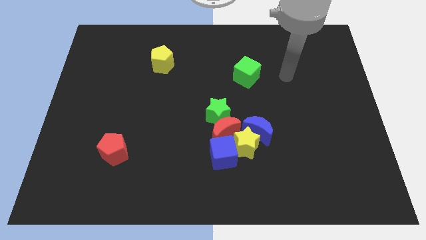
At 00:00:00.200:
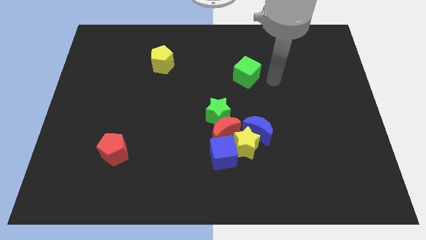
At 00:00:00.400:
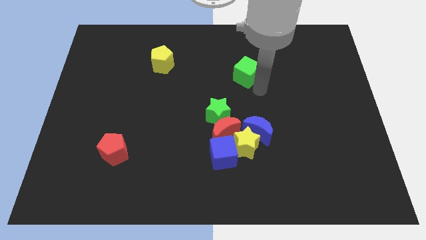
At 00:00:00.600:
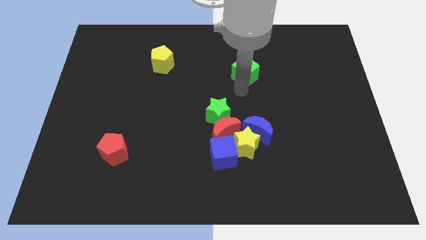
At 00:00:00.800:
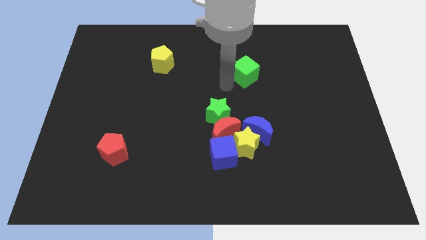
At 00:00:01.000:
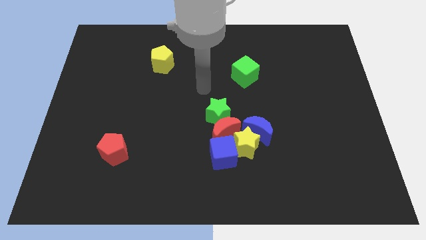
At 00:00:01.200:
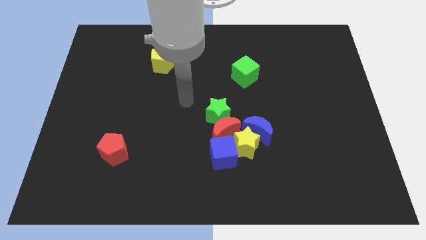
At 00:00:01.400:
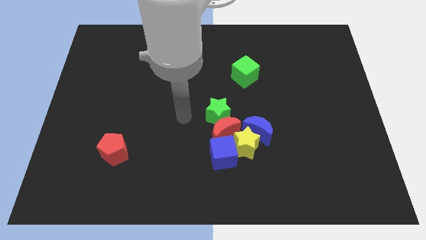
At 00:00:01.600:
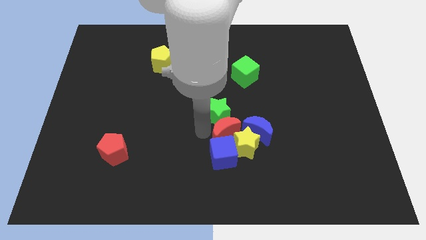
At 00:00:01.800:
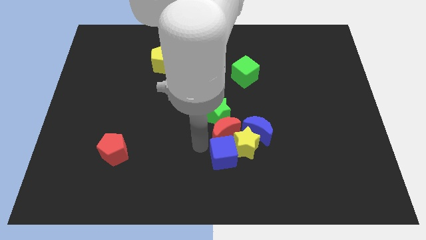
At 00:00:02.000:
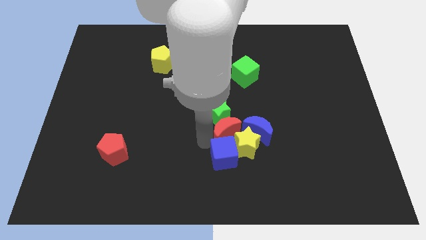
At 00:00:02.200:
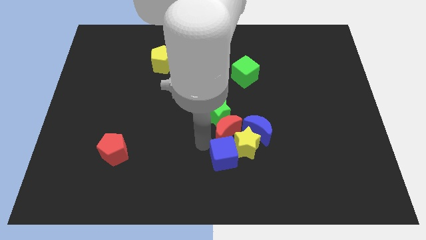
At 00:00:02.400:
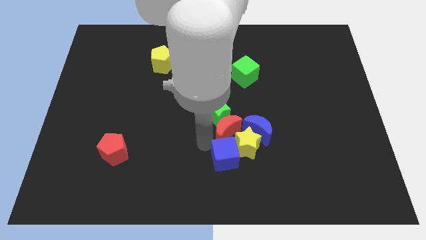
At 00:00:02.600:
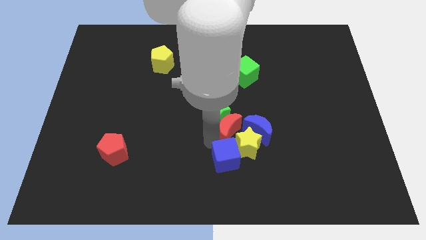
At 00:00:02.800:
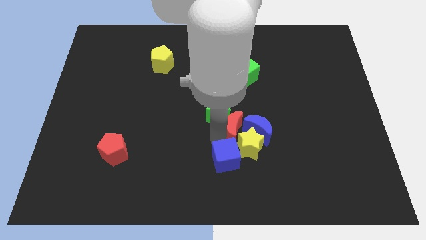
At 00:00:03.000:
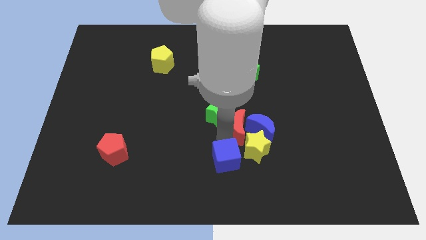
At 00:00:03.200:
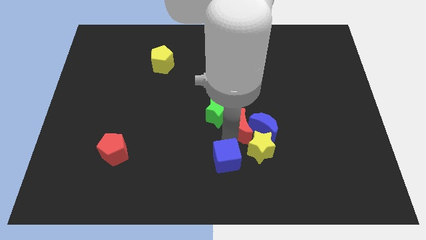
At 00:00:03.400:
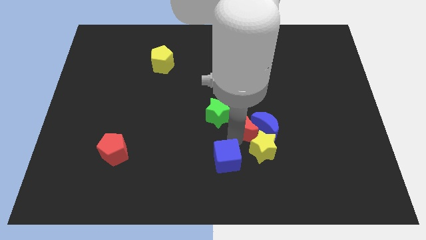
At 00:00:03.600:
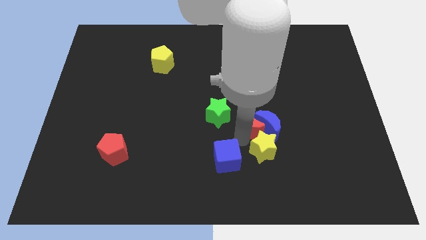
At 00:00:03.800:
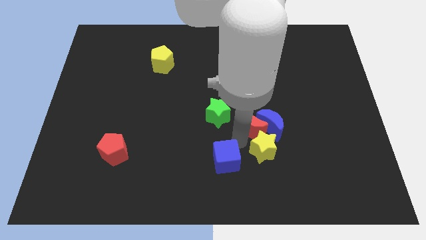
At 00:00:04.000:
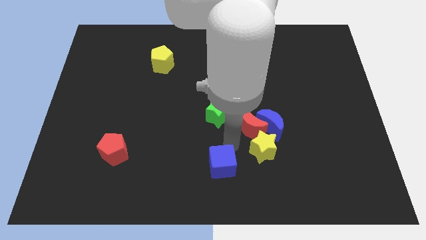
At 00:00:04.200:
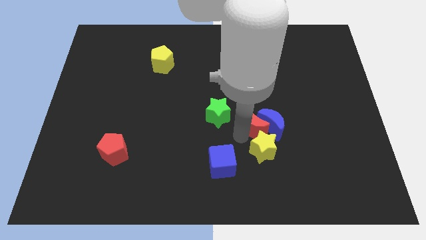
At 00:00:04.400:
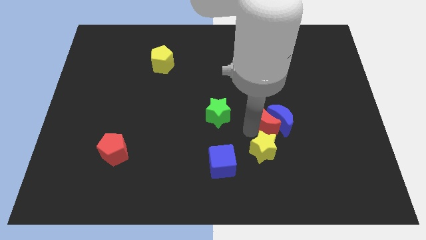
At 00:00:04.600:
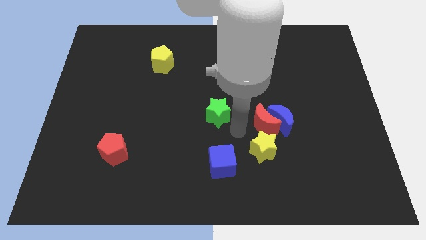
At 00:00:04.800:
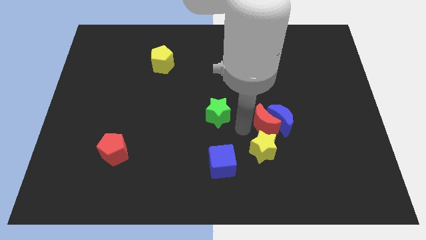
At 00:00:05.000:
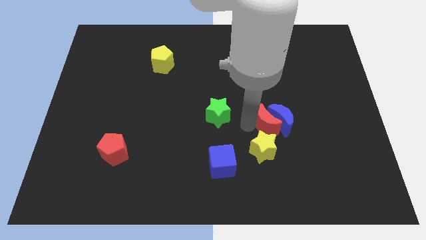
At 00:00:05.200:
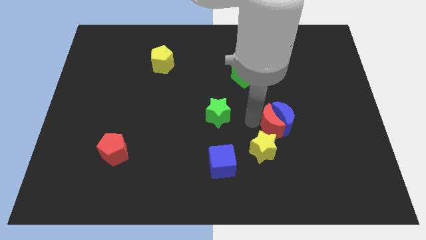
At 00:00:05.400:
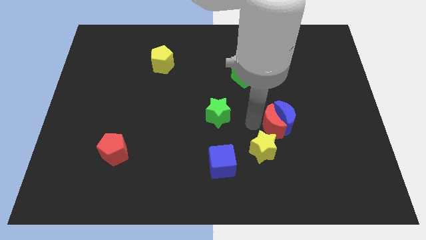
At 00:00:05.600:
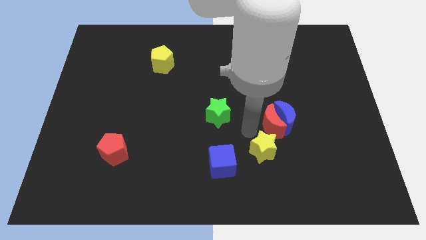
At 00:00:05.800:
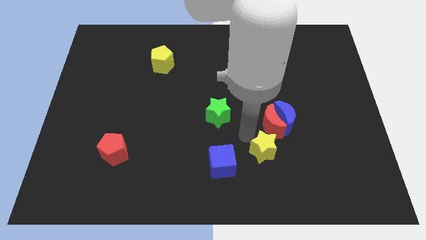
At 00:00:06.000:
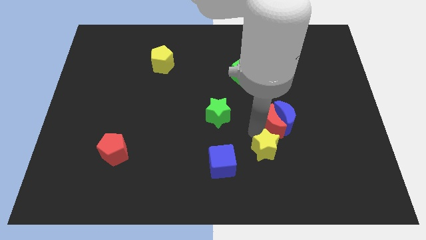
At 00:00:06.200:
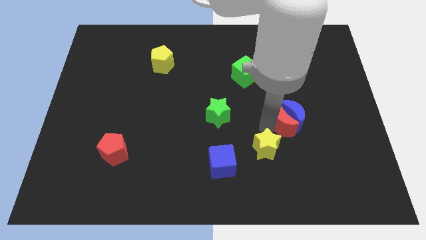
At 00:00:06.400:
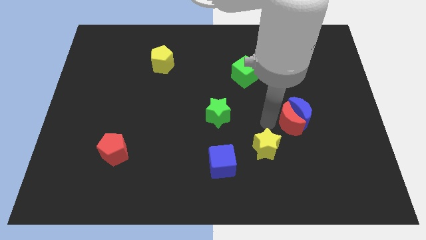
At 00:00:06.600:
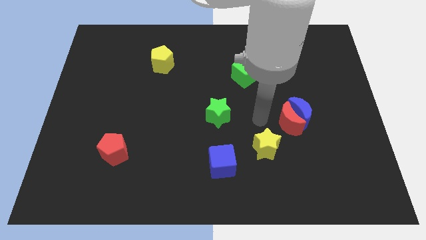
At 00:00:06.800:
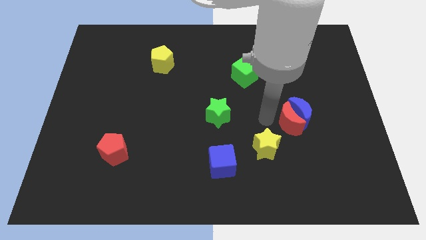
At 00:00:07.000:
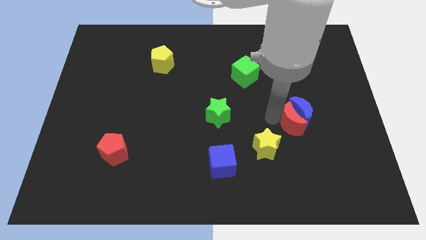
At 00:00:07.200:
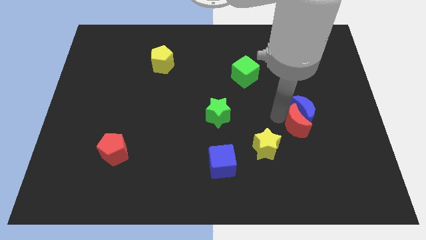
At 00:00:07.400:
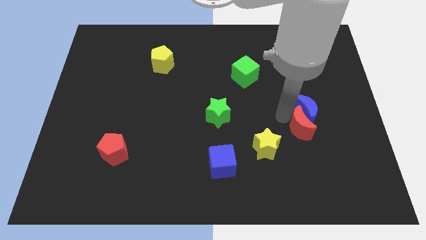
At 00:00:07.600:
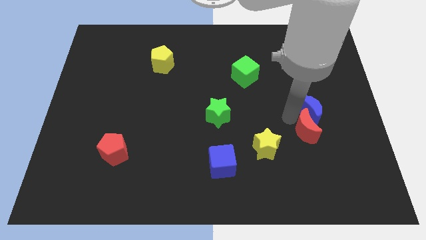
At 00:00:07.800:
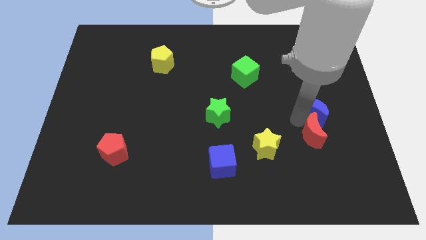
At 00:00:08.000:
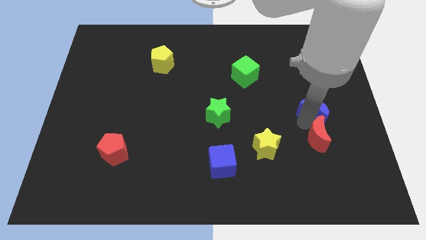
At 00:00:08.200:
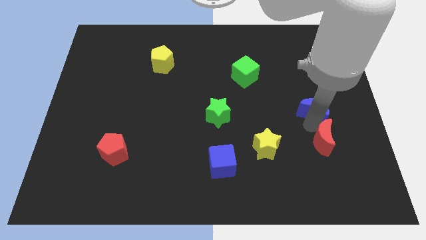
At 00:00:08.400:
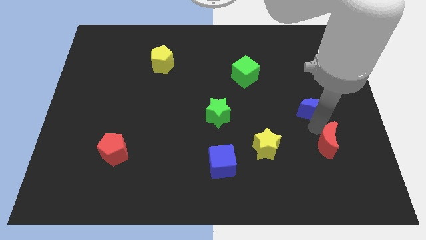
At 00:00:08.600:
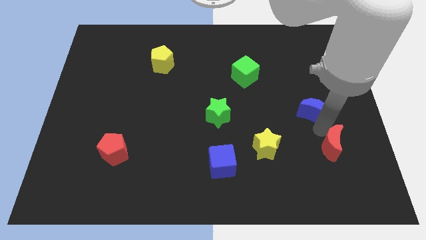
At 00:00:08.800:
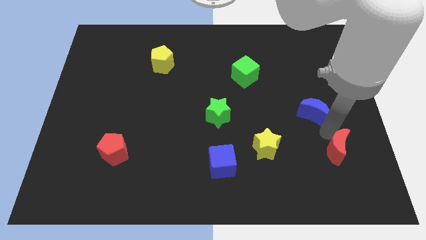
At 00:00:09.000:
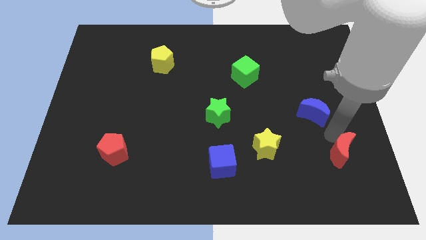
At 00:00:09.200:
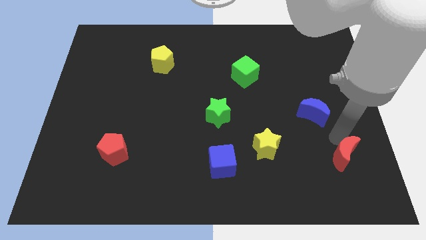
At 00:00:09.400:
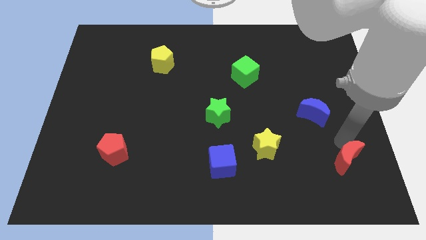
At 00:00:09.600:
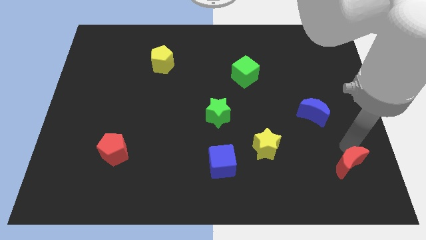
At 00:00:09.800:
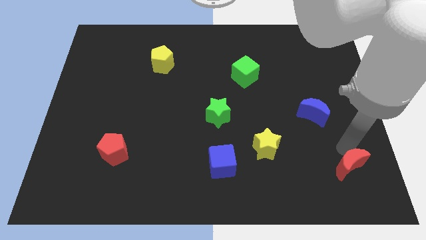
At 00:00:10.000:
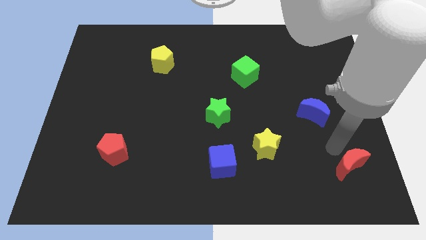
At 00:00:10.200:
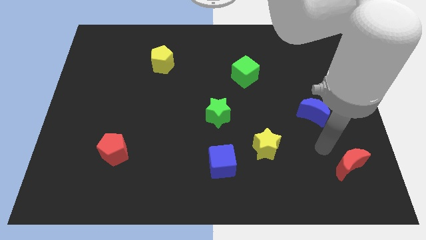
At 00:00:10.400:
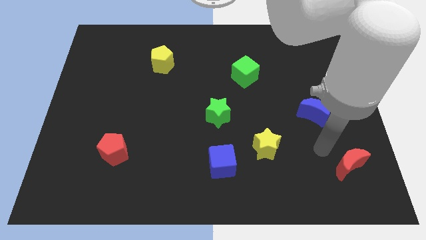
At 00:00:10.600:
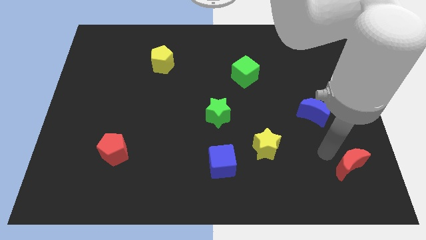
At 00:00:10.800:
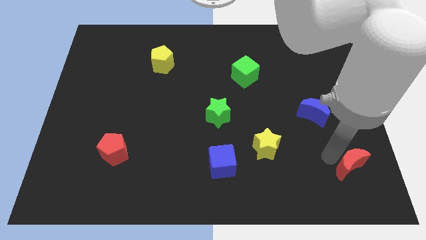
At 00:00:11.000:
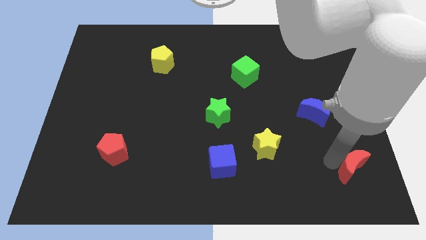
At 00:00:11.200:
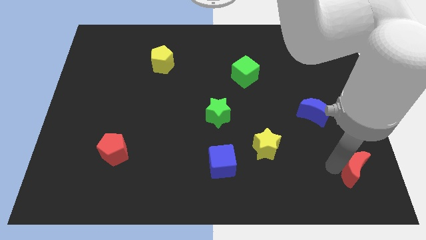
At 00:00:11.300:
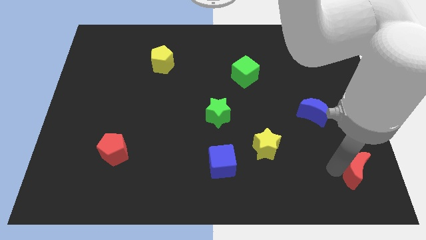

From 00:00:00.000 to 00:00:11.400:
push the red moon to the bottom right corner

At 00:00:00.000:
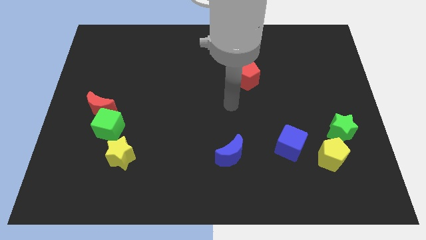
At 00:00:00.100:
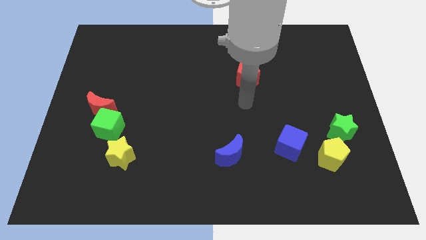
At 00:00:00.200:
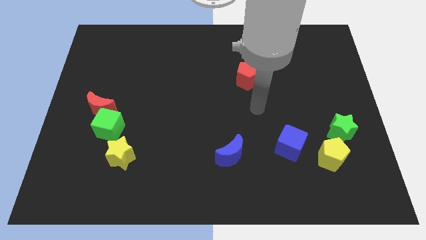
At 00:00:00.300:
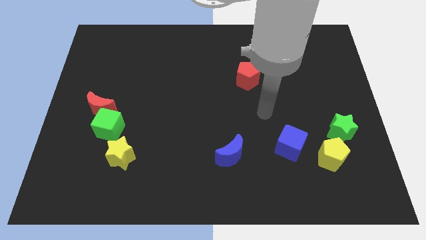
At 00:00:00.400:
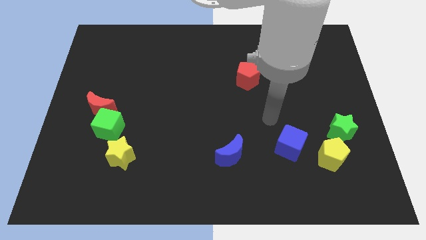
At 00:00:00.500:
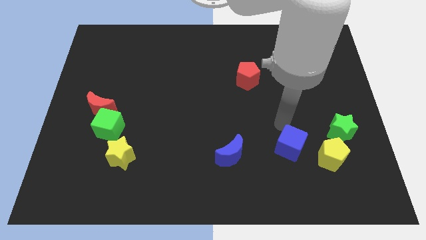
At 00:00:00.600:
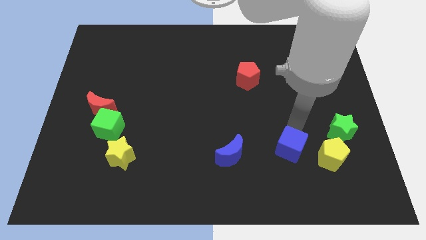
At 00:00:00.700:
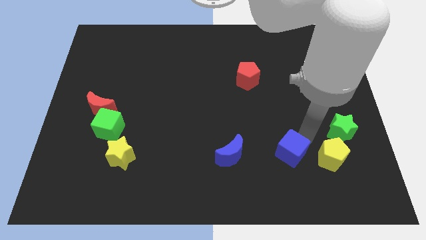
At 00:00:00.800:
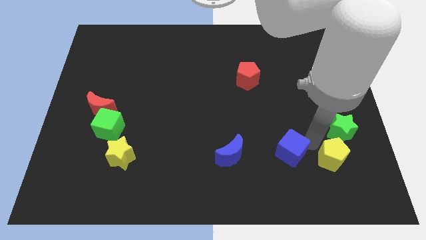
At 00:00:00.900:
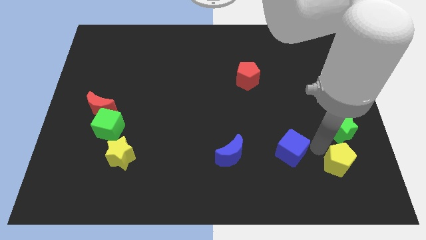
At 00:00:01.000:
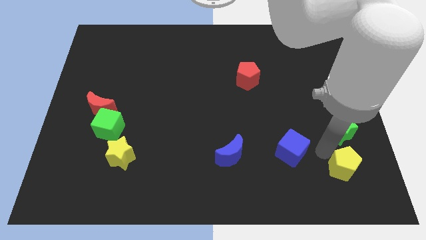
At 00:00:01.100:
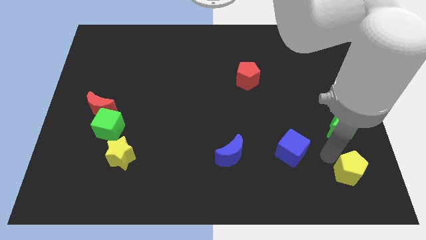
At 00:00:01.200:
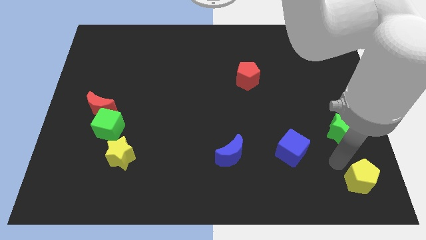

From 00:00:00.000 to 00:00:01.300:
slide the yellow pentagon to the bottom right corner
